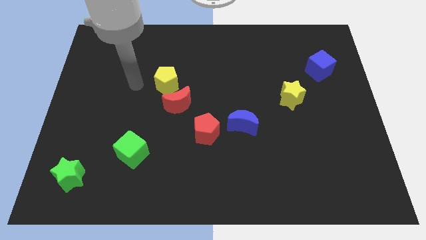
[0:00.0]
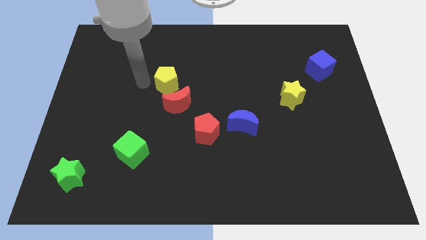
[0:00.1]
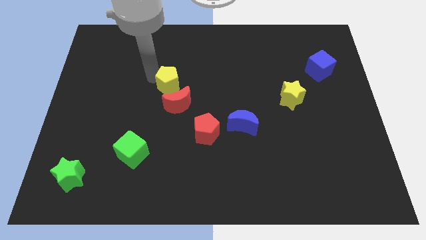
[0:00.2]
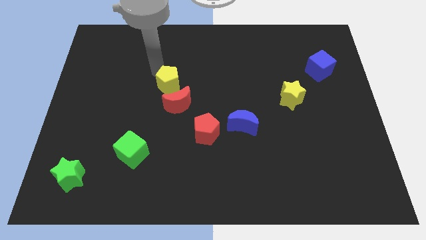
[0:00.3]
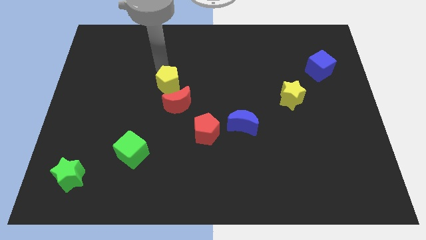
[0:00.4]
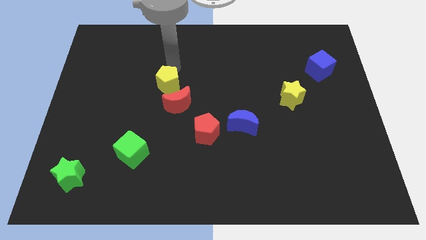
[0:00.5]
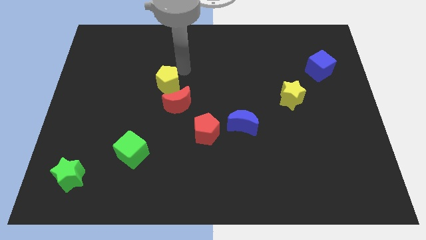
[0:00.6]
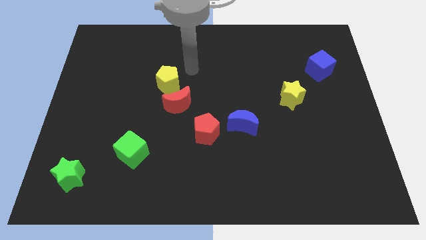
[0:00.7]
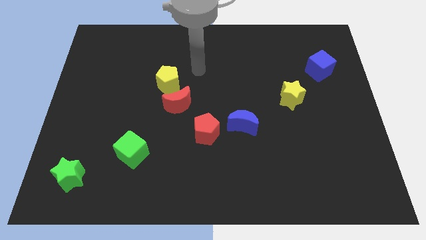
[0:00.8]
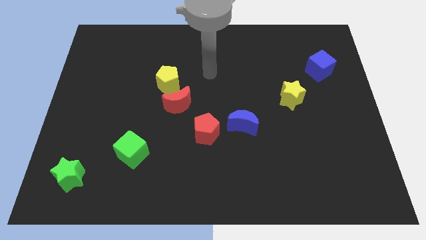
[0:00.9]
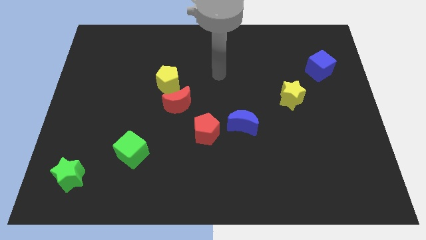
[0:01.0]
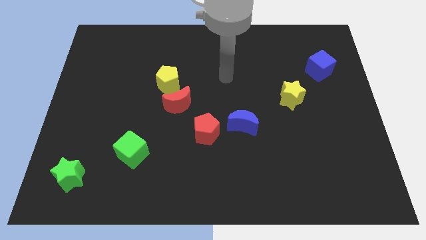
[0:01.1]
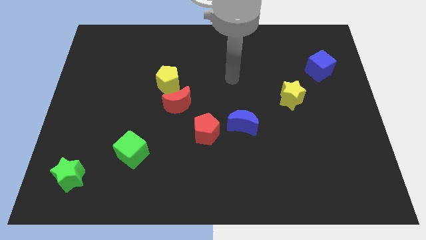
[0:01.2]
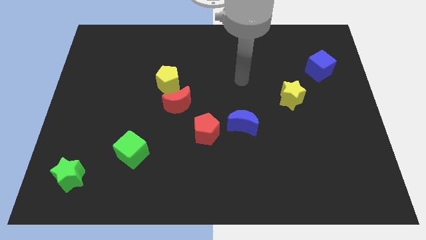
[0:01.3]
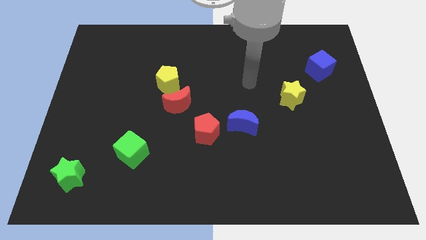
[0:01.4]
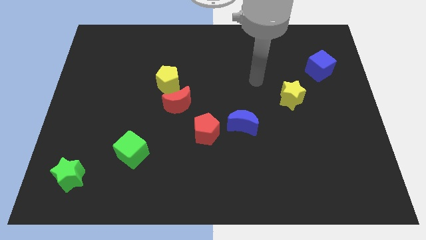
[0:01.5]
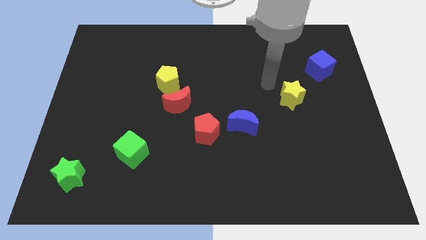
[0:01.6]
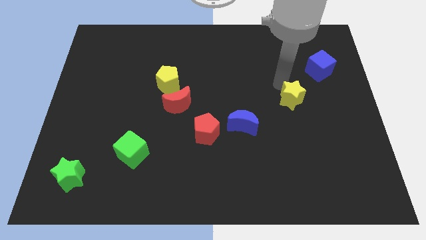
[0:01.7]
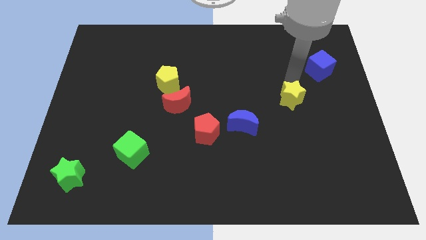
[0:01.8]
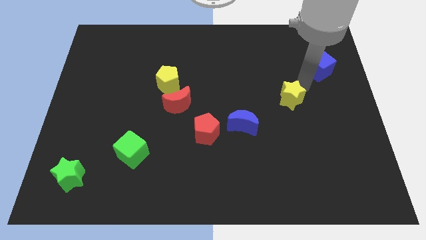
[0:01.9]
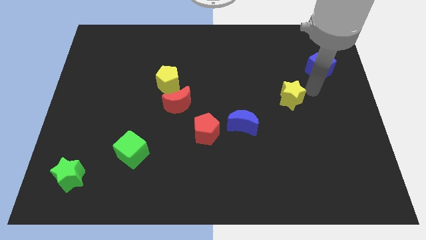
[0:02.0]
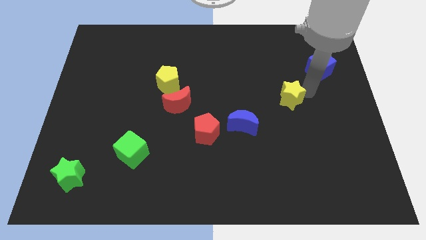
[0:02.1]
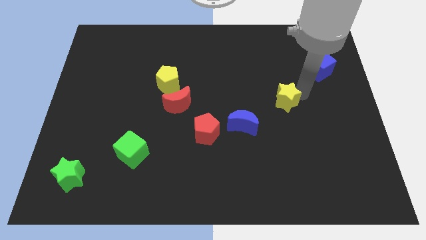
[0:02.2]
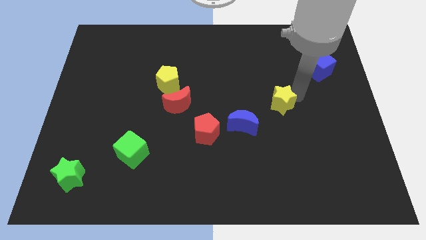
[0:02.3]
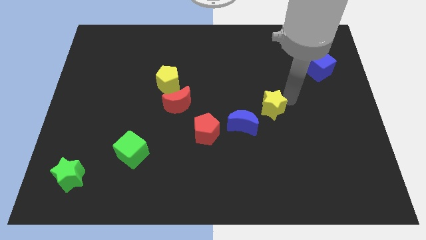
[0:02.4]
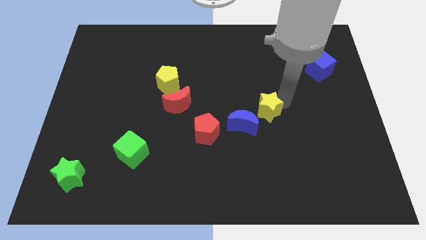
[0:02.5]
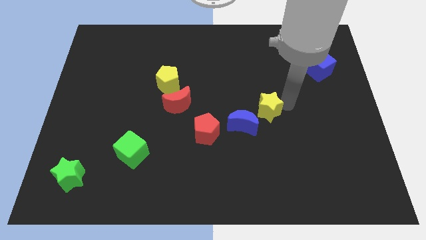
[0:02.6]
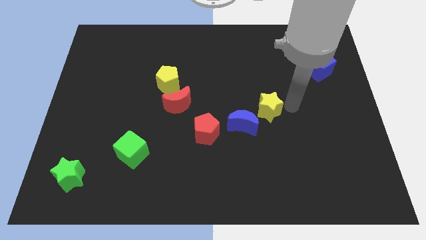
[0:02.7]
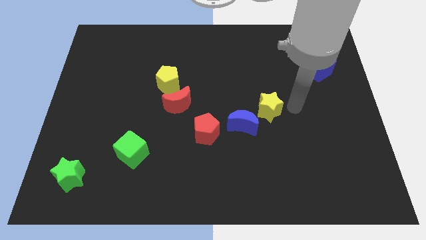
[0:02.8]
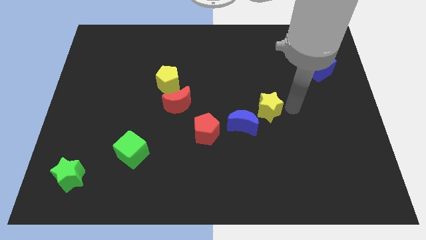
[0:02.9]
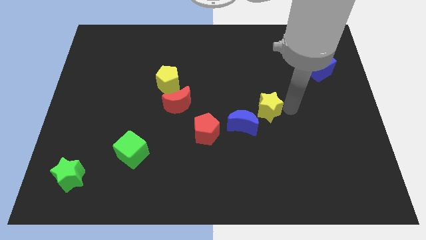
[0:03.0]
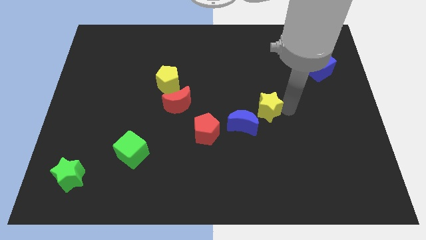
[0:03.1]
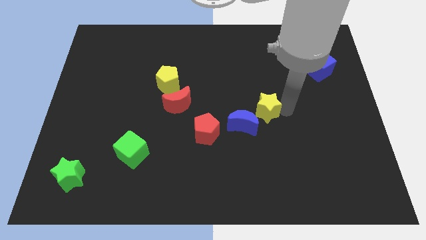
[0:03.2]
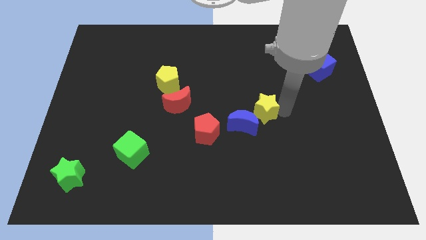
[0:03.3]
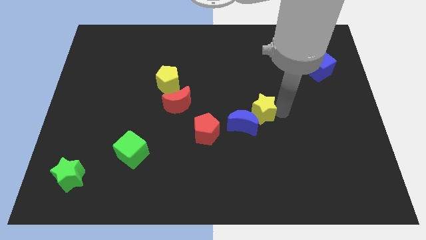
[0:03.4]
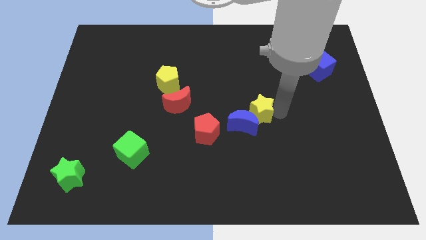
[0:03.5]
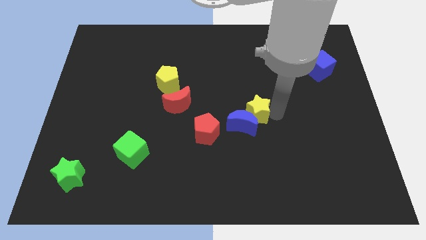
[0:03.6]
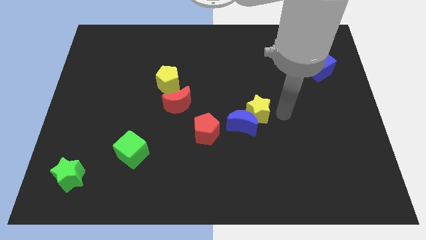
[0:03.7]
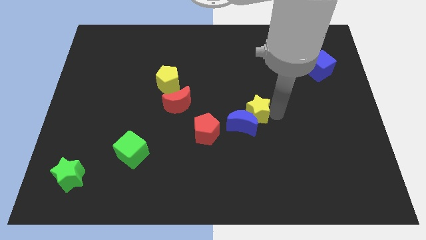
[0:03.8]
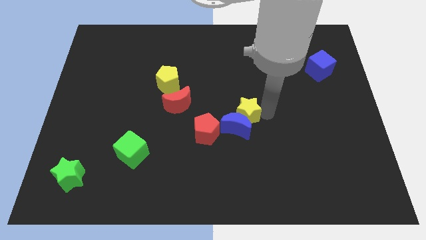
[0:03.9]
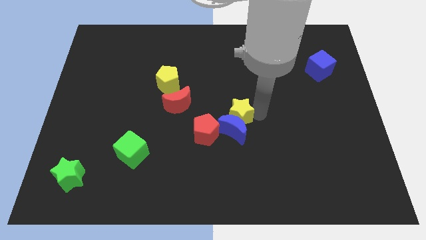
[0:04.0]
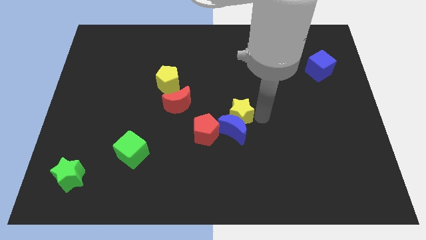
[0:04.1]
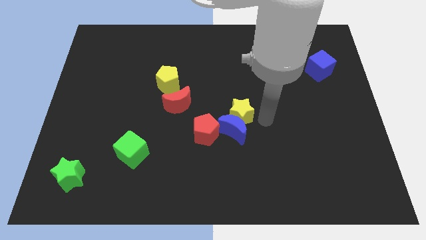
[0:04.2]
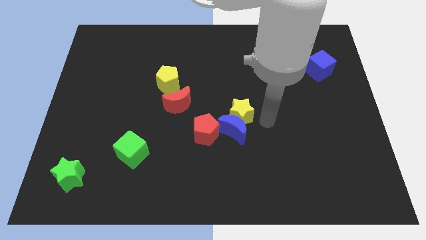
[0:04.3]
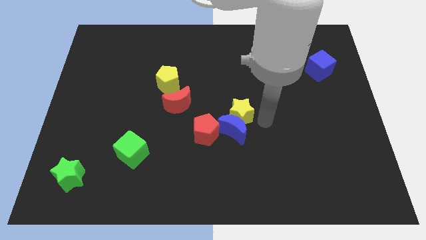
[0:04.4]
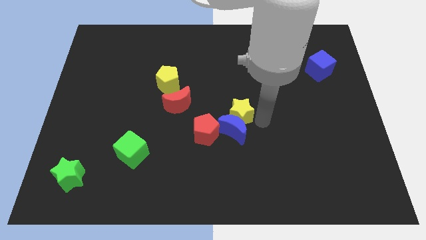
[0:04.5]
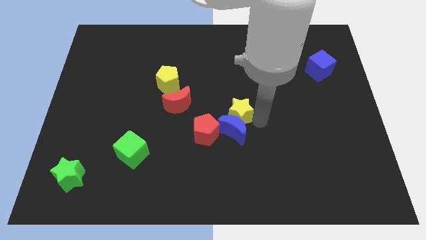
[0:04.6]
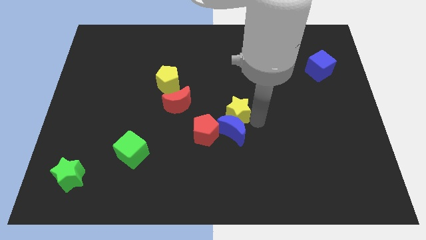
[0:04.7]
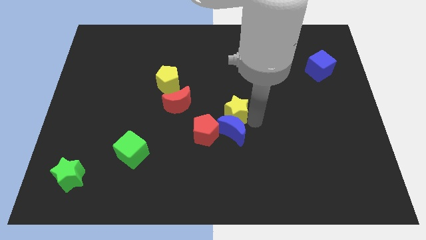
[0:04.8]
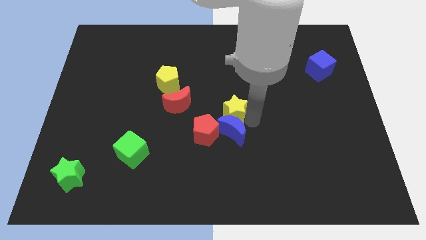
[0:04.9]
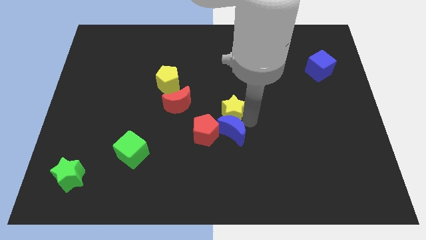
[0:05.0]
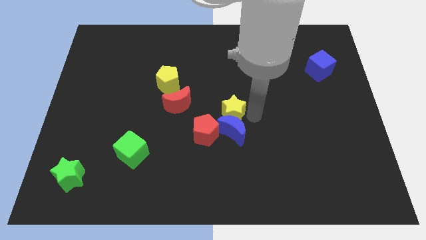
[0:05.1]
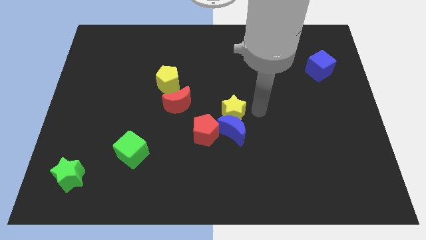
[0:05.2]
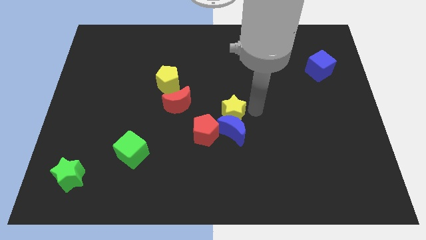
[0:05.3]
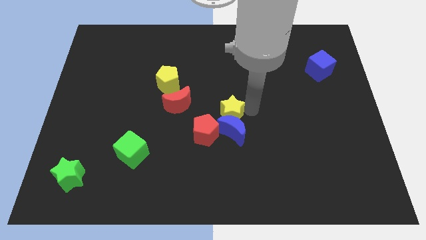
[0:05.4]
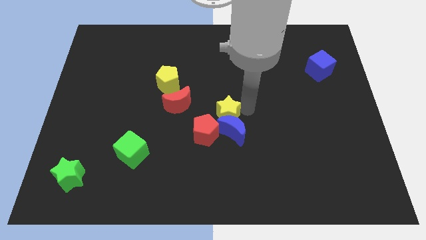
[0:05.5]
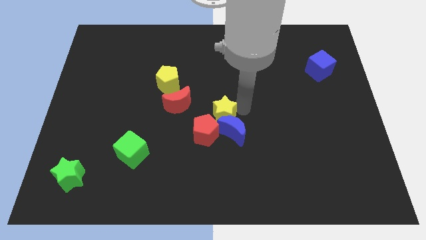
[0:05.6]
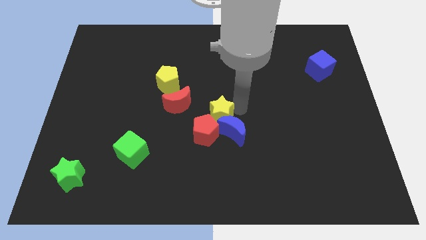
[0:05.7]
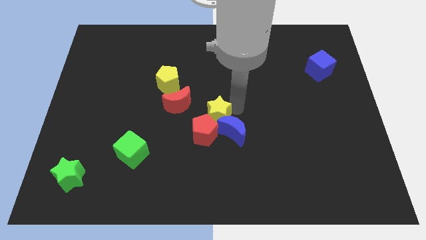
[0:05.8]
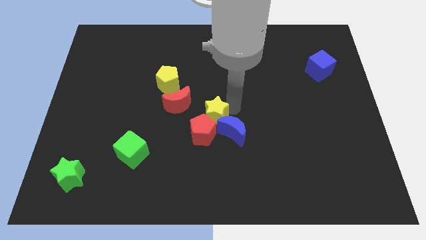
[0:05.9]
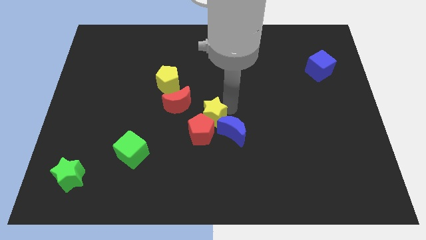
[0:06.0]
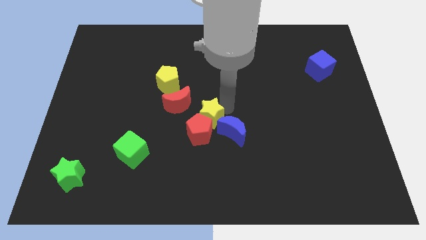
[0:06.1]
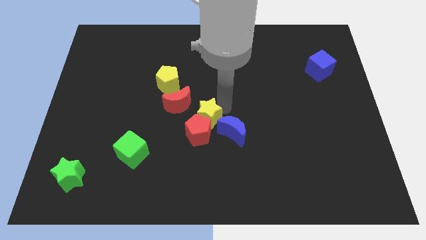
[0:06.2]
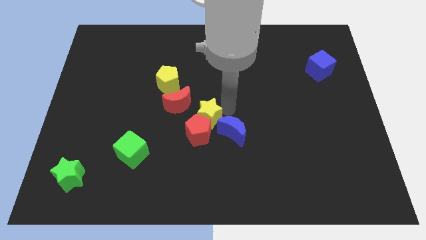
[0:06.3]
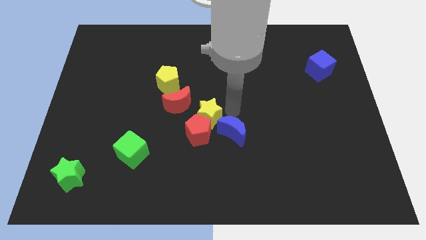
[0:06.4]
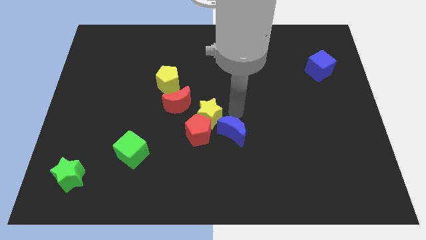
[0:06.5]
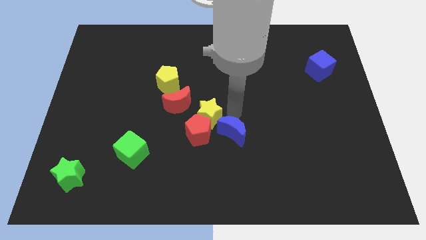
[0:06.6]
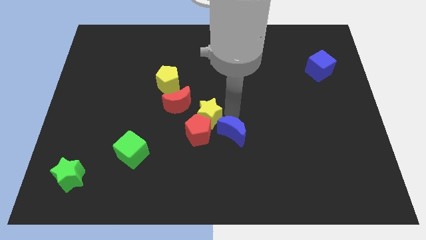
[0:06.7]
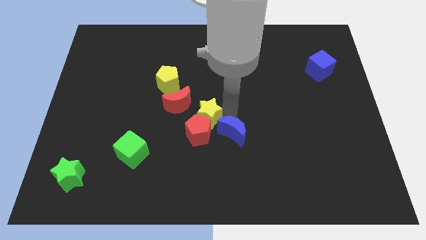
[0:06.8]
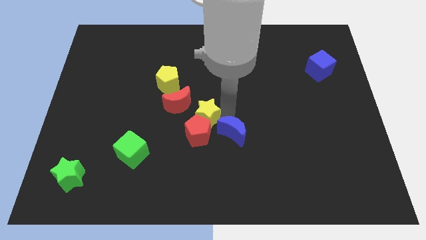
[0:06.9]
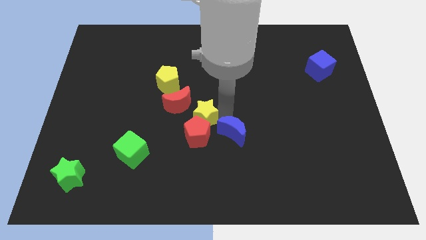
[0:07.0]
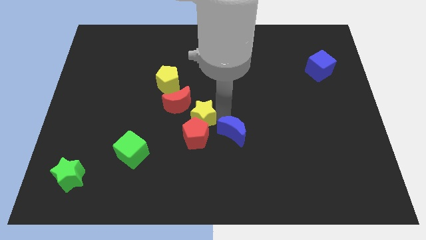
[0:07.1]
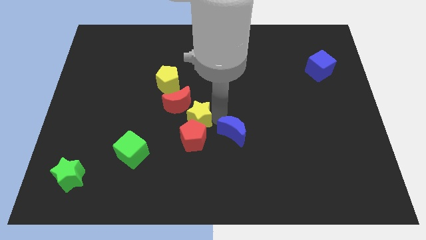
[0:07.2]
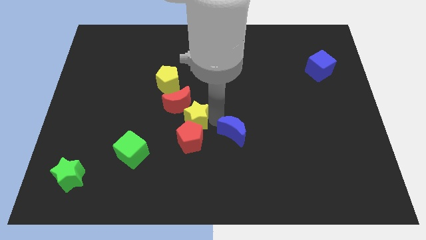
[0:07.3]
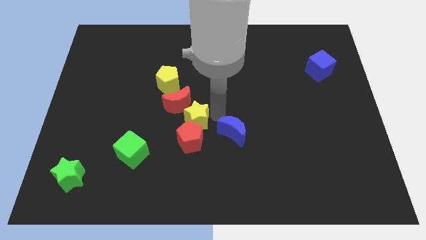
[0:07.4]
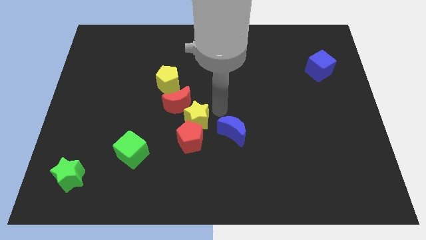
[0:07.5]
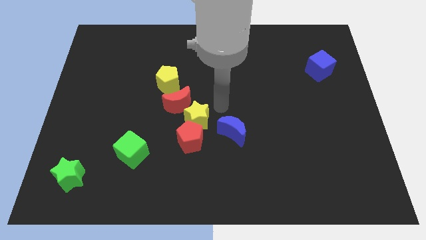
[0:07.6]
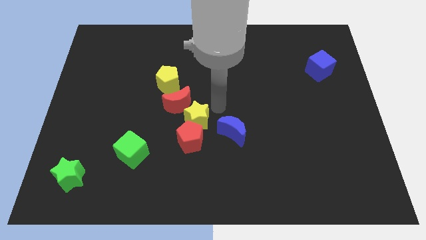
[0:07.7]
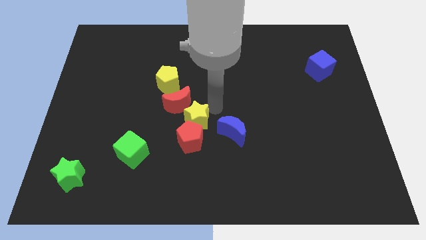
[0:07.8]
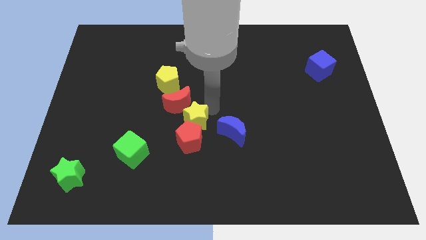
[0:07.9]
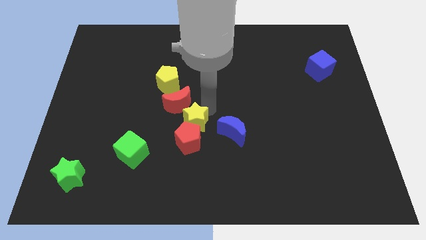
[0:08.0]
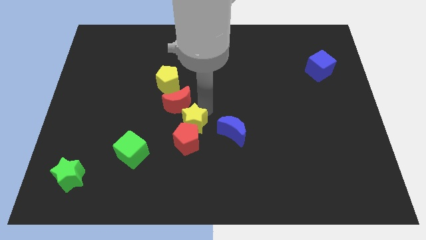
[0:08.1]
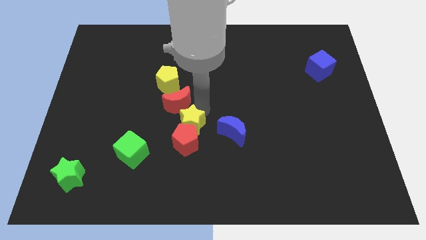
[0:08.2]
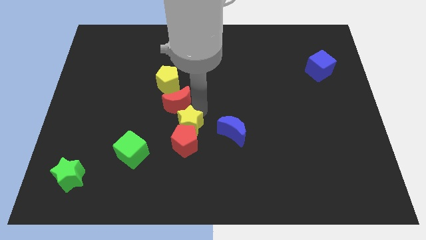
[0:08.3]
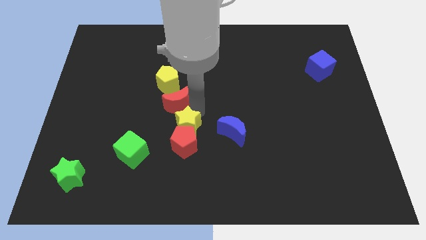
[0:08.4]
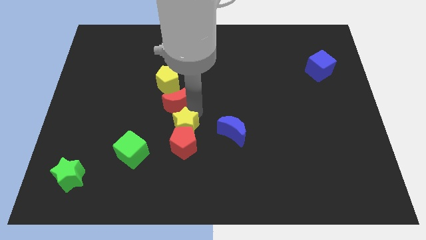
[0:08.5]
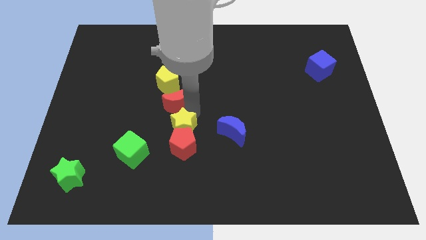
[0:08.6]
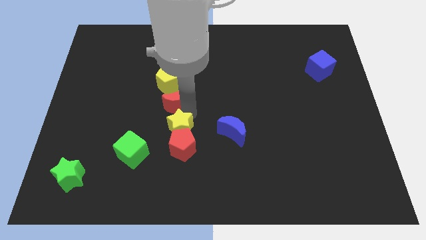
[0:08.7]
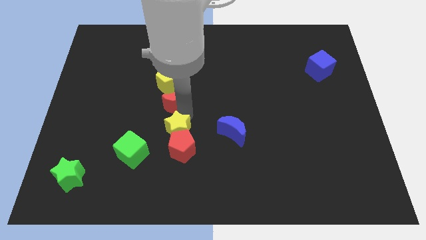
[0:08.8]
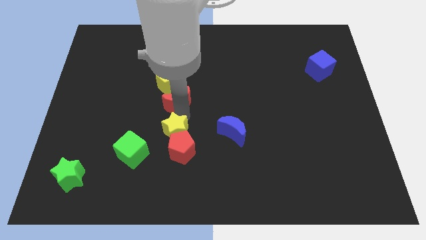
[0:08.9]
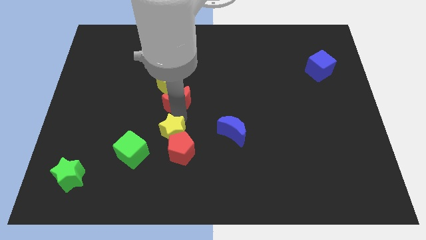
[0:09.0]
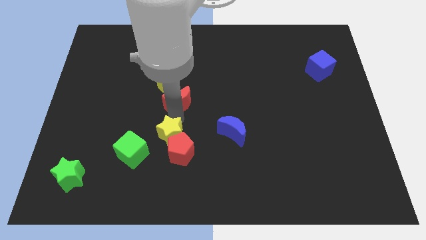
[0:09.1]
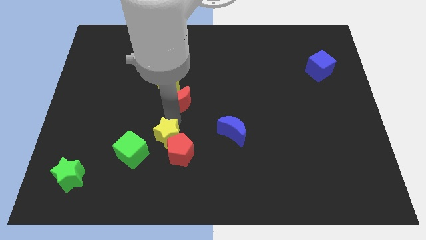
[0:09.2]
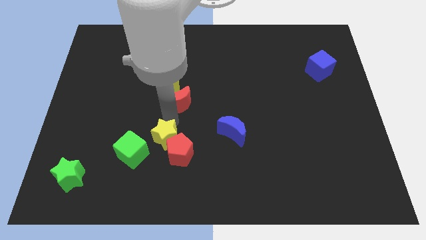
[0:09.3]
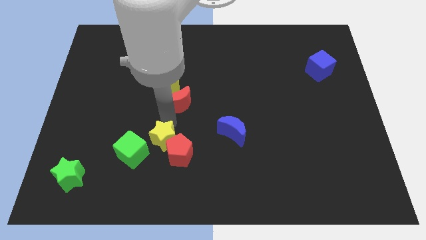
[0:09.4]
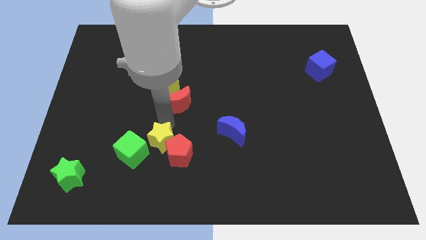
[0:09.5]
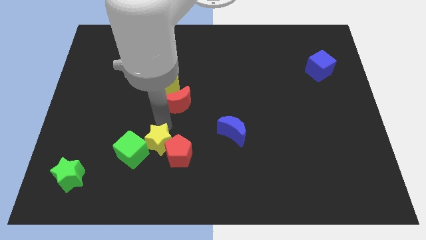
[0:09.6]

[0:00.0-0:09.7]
slide the yellow star to the green cube
